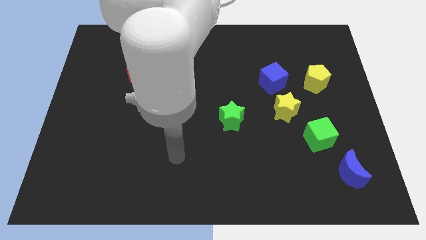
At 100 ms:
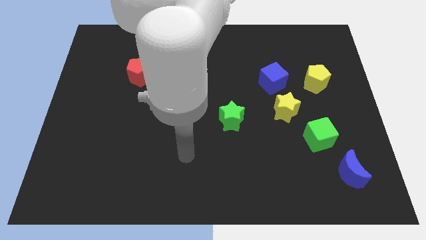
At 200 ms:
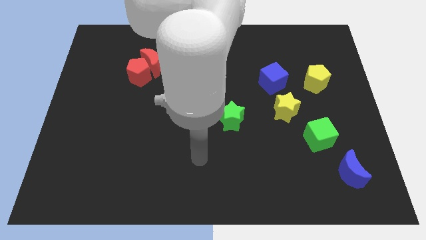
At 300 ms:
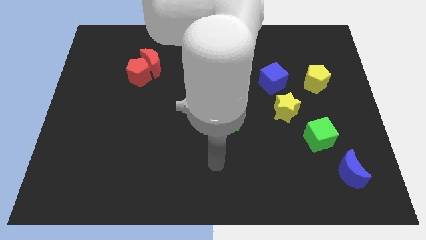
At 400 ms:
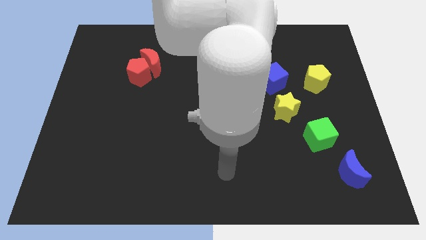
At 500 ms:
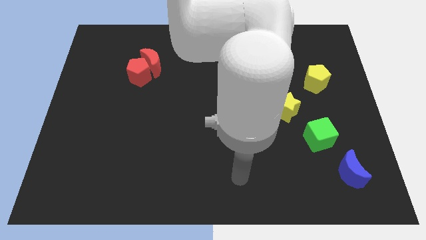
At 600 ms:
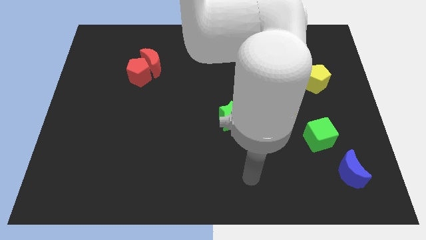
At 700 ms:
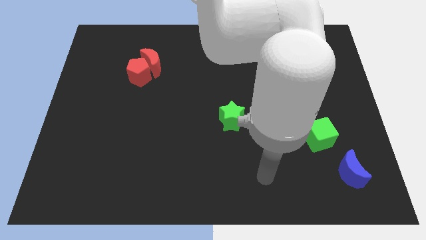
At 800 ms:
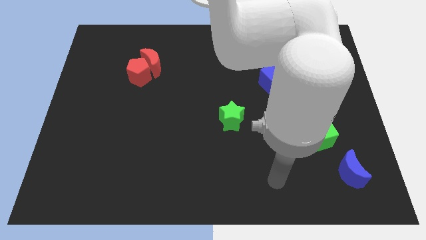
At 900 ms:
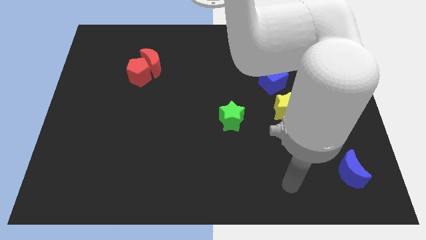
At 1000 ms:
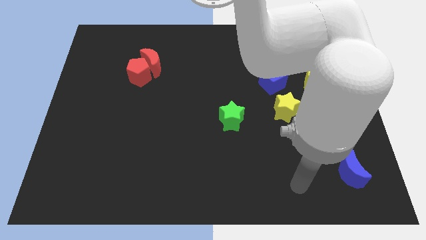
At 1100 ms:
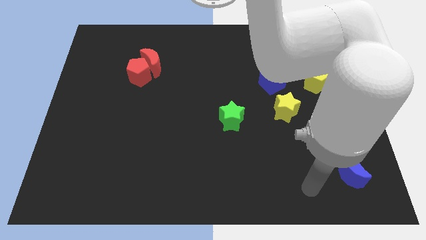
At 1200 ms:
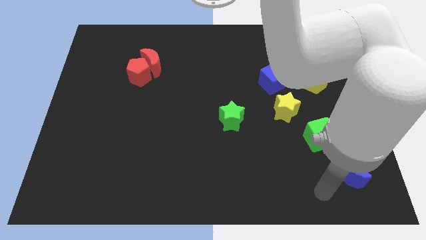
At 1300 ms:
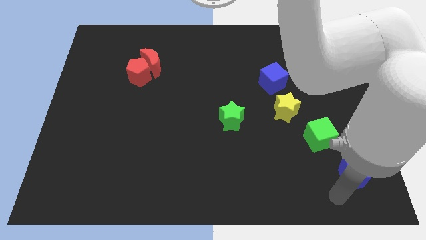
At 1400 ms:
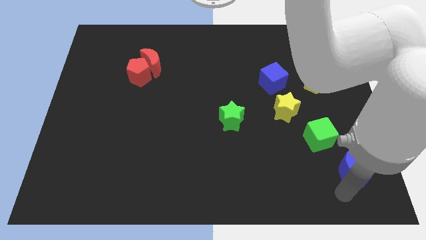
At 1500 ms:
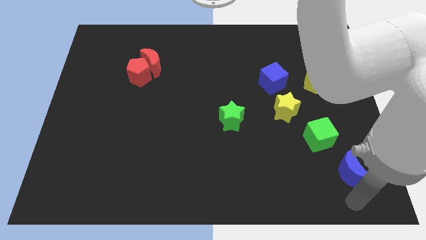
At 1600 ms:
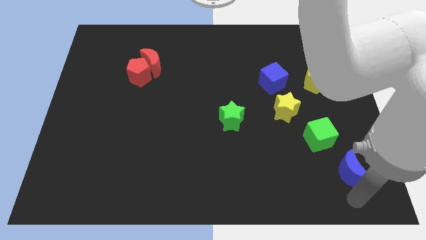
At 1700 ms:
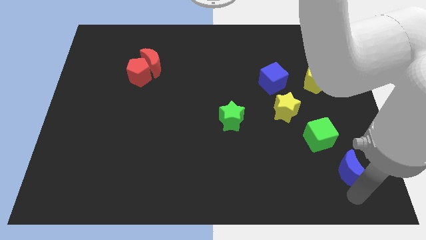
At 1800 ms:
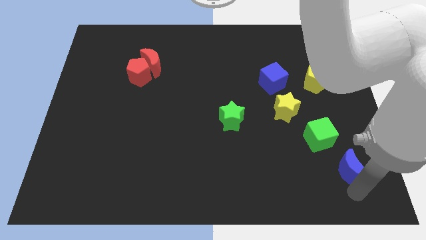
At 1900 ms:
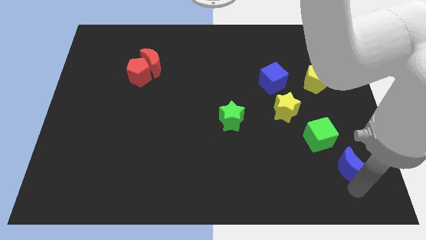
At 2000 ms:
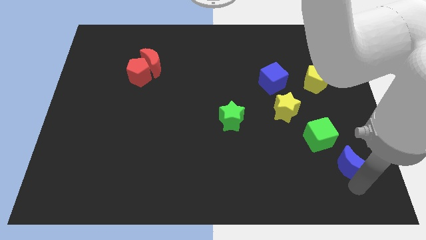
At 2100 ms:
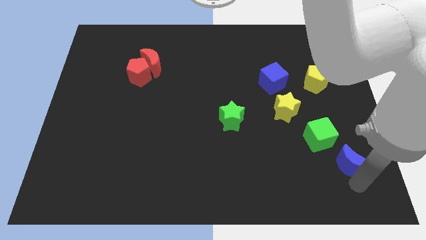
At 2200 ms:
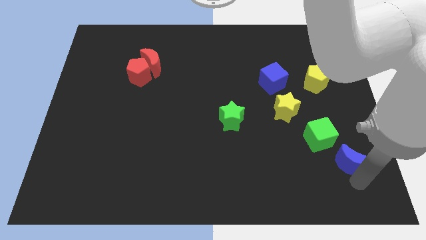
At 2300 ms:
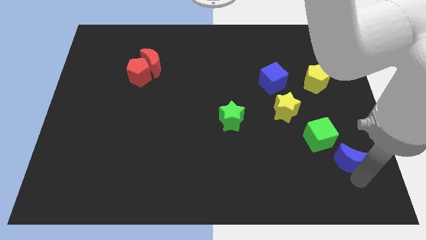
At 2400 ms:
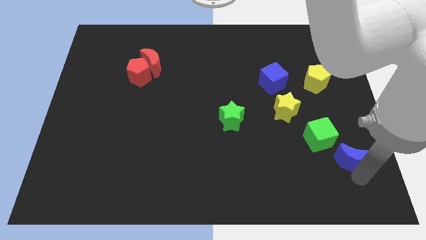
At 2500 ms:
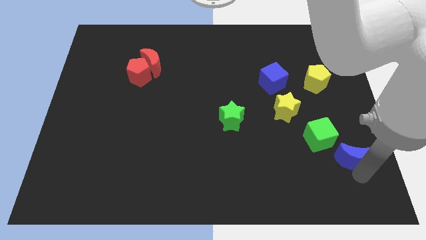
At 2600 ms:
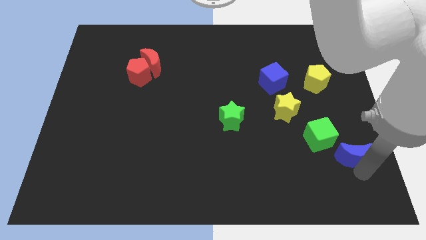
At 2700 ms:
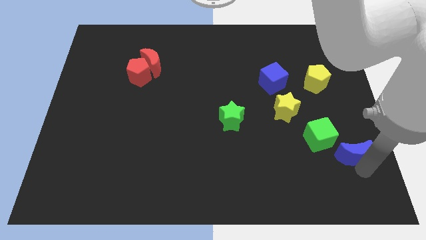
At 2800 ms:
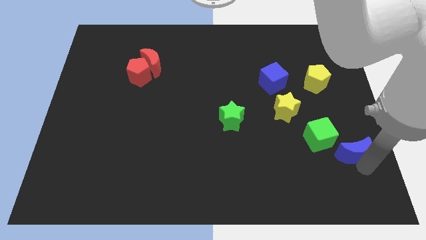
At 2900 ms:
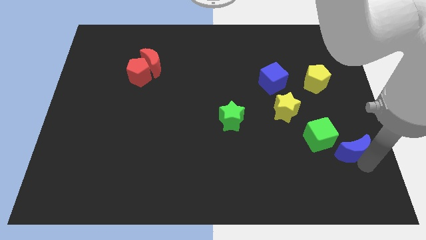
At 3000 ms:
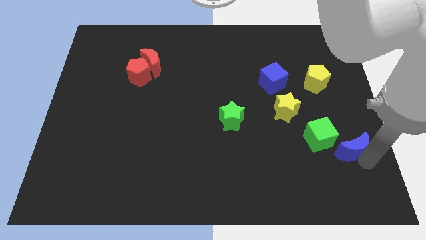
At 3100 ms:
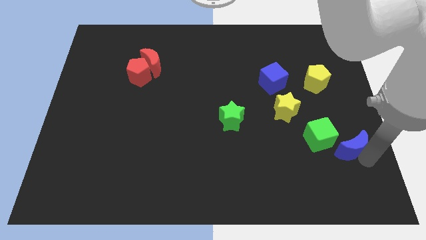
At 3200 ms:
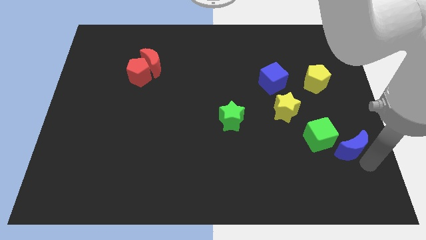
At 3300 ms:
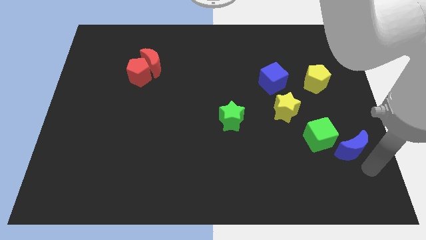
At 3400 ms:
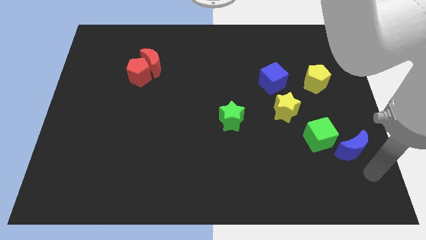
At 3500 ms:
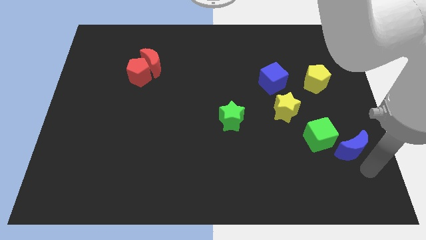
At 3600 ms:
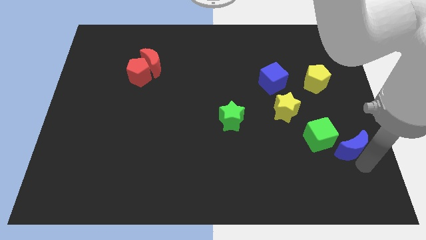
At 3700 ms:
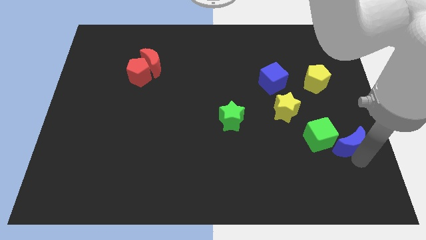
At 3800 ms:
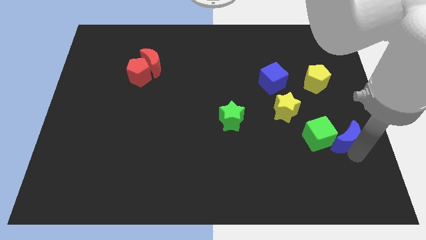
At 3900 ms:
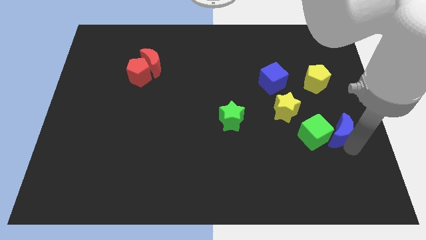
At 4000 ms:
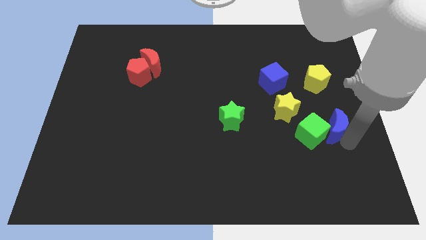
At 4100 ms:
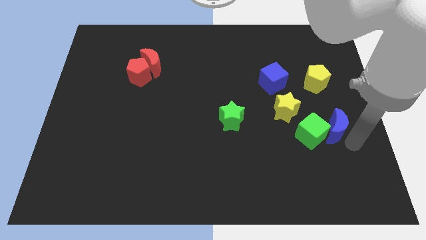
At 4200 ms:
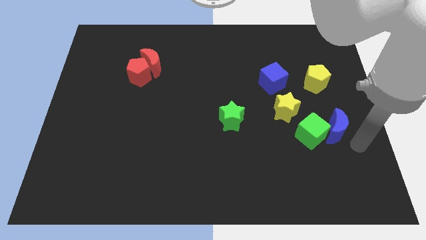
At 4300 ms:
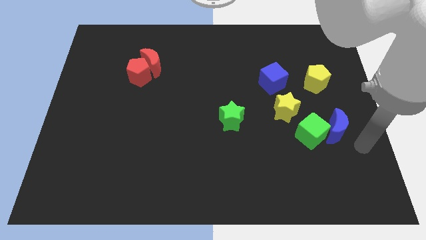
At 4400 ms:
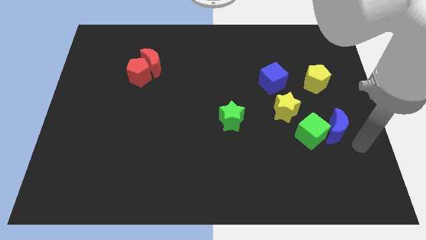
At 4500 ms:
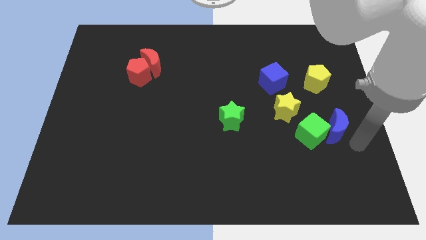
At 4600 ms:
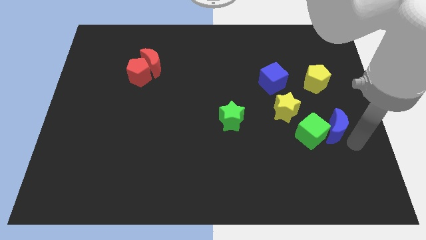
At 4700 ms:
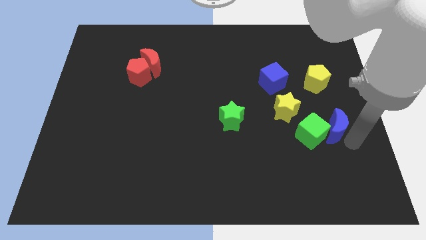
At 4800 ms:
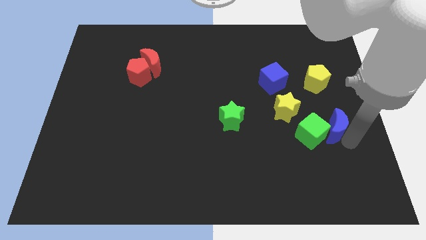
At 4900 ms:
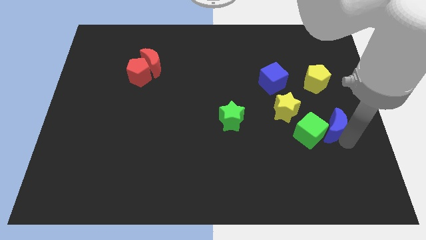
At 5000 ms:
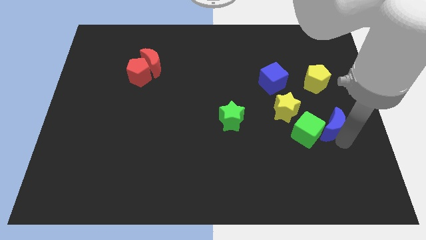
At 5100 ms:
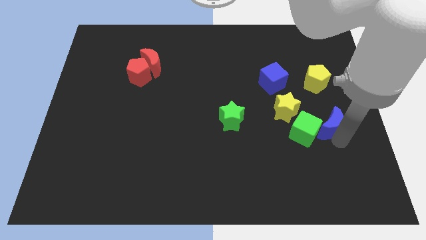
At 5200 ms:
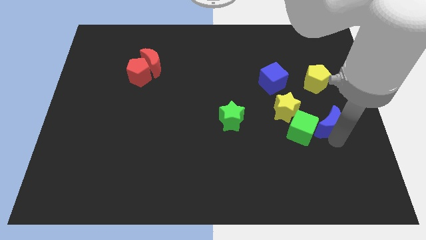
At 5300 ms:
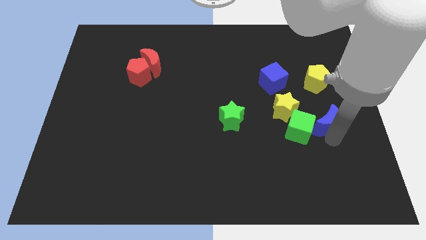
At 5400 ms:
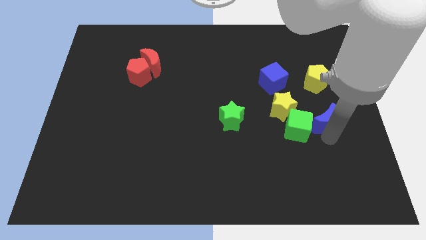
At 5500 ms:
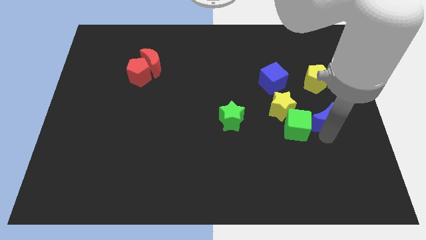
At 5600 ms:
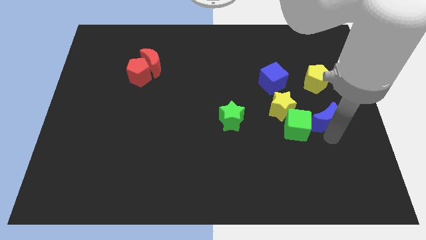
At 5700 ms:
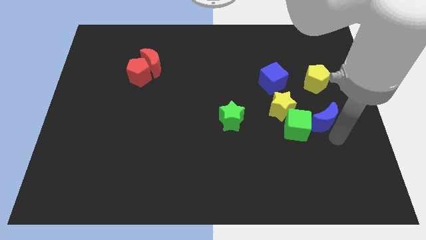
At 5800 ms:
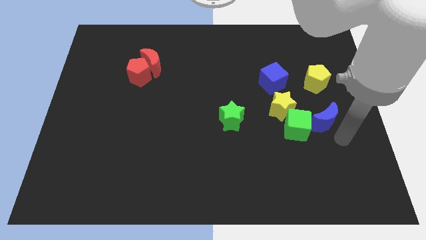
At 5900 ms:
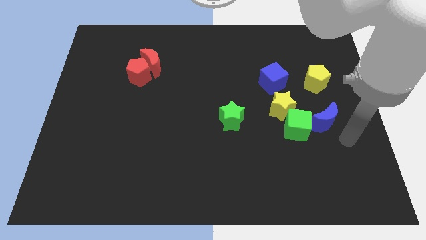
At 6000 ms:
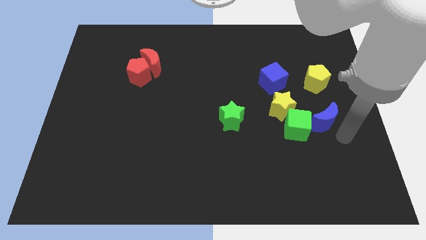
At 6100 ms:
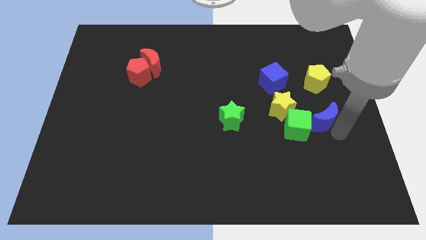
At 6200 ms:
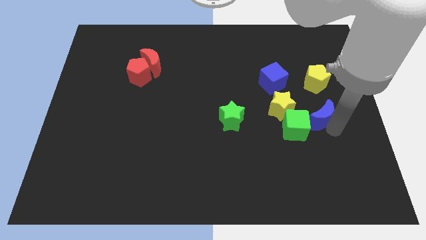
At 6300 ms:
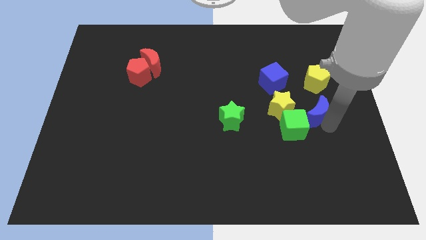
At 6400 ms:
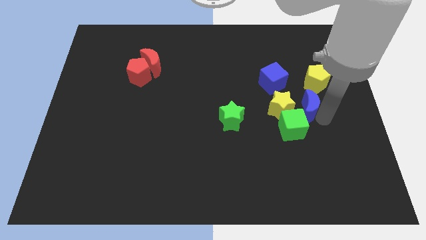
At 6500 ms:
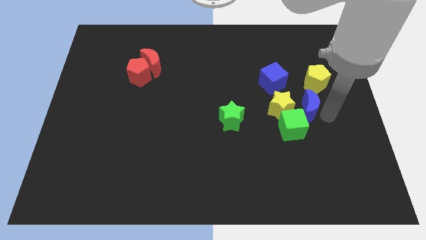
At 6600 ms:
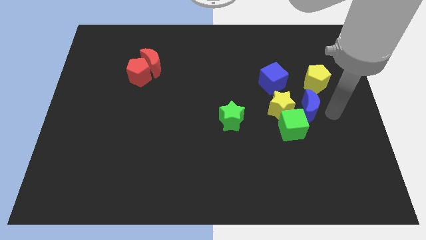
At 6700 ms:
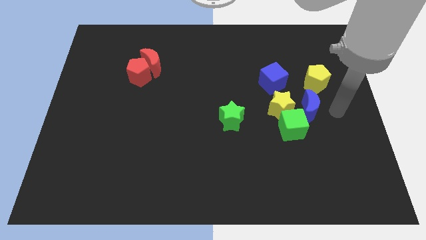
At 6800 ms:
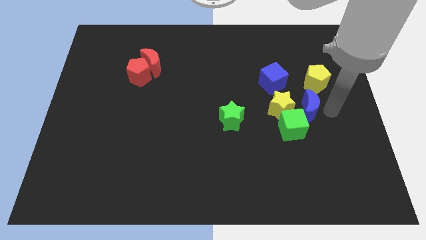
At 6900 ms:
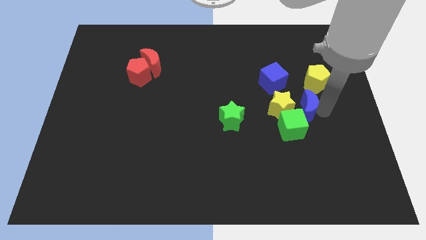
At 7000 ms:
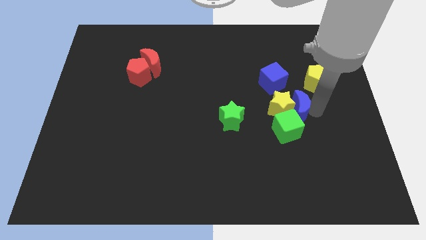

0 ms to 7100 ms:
put the blue moon to the yellow star

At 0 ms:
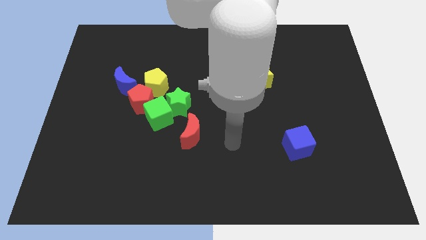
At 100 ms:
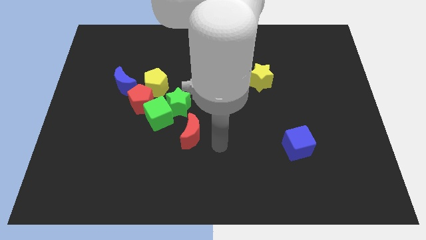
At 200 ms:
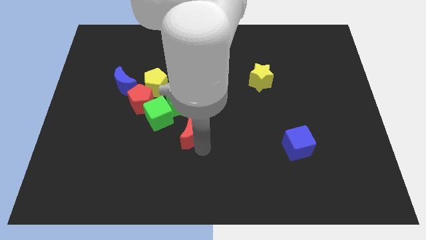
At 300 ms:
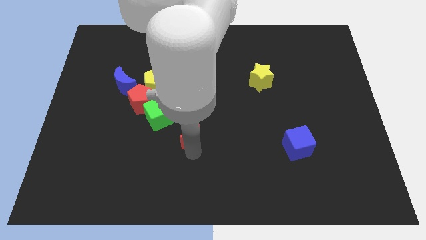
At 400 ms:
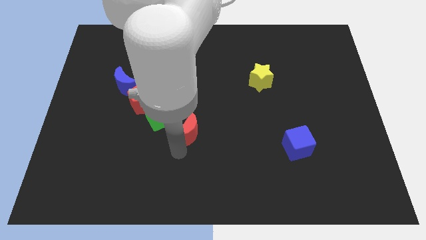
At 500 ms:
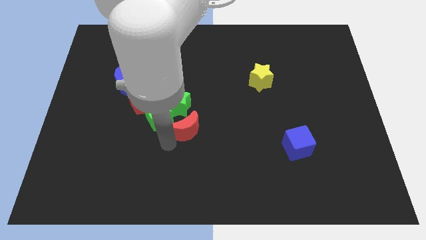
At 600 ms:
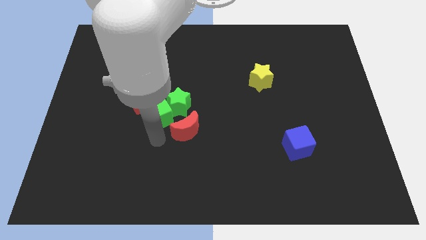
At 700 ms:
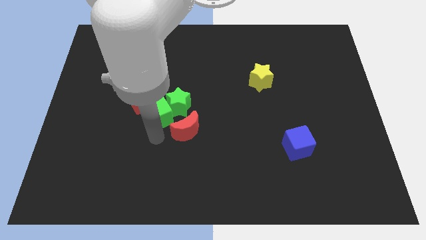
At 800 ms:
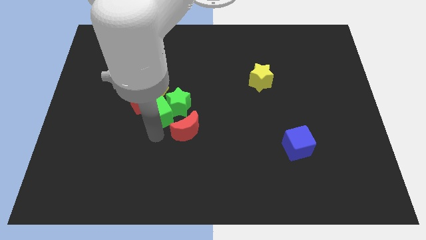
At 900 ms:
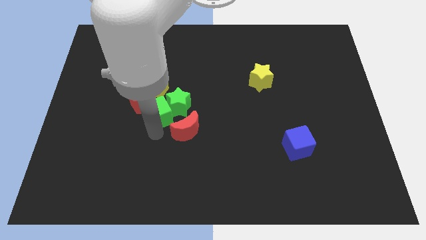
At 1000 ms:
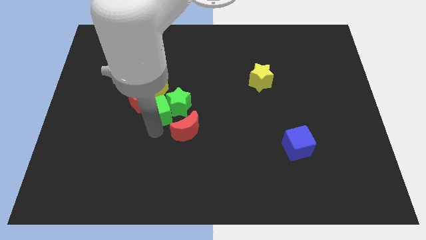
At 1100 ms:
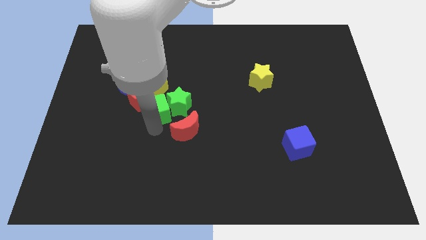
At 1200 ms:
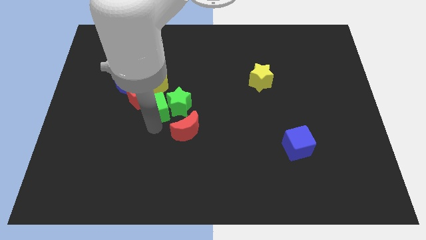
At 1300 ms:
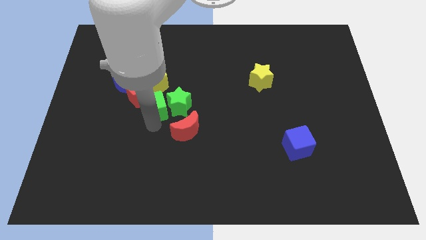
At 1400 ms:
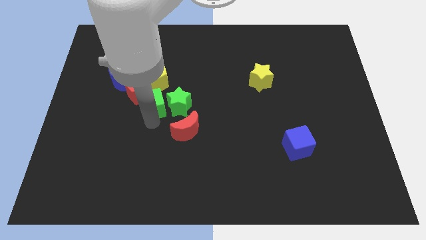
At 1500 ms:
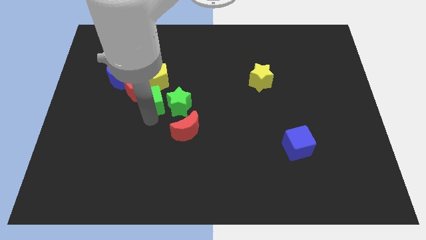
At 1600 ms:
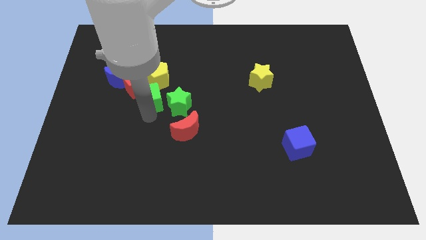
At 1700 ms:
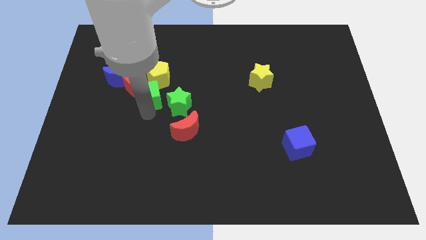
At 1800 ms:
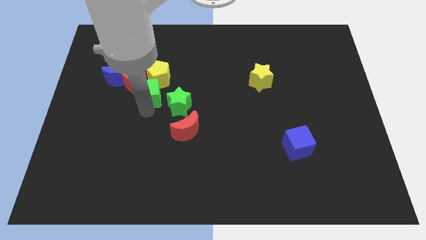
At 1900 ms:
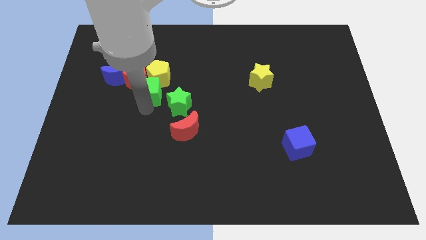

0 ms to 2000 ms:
push the green cube to the yellow pentagon
